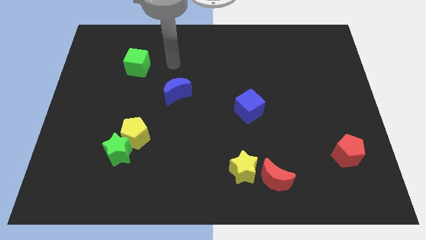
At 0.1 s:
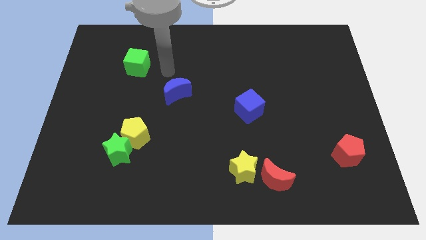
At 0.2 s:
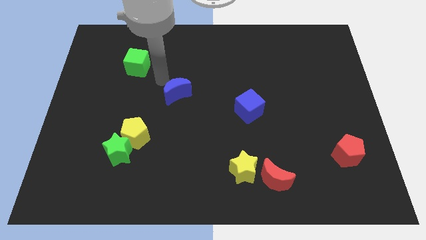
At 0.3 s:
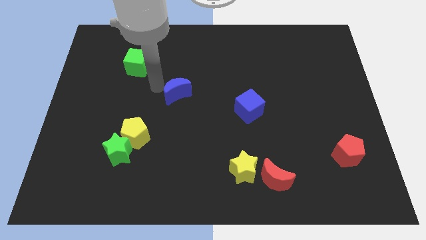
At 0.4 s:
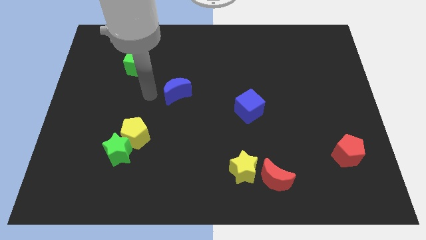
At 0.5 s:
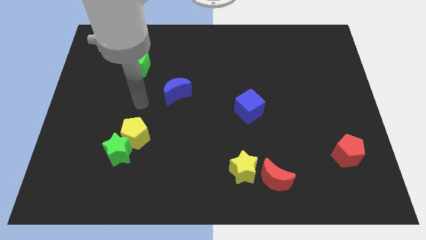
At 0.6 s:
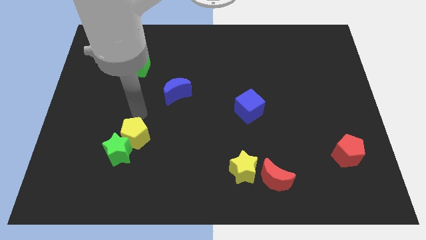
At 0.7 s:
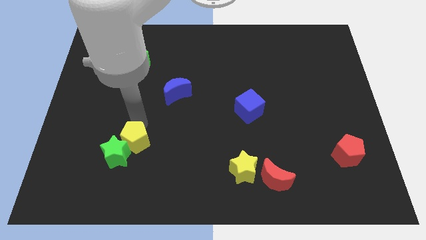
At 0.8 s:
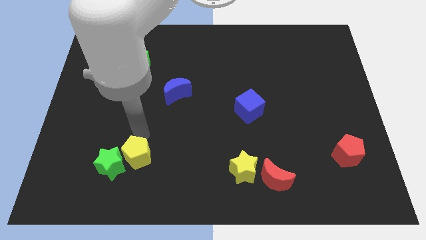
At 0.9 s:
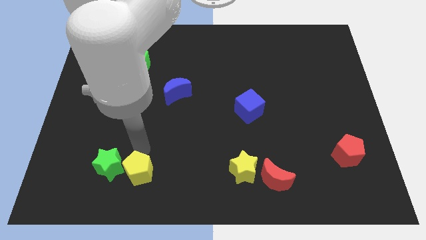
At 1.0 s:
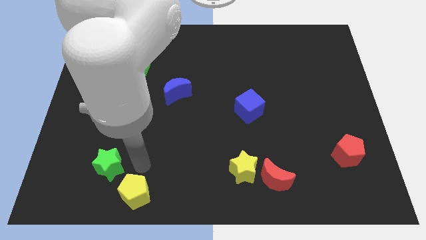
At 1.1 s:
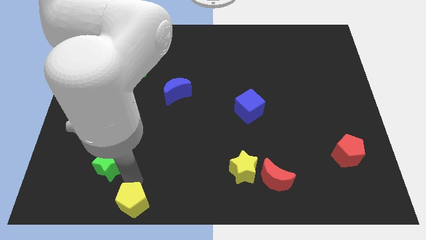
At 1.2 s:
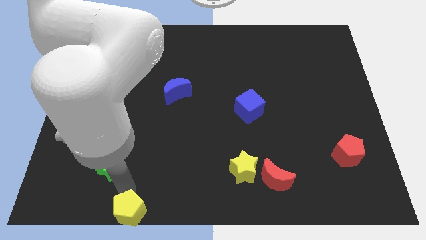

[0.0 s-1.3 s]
pull the green star apart from the yellow pentagon

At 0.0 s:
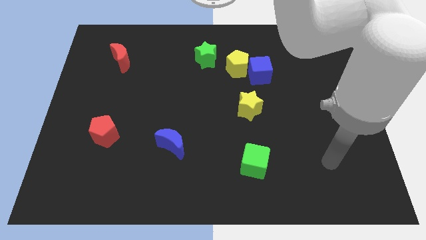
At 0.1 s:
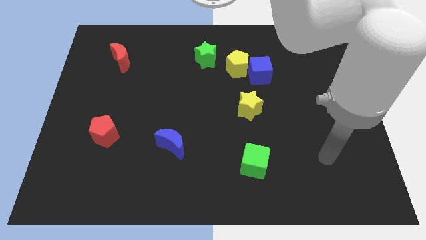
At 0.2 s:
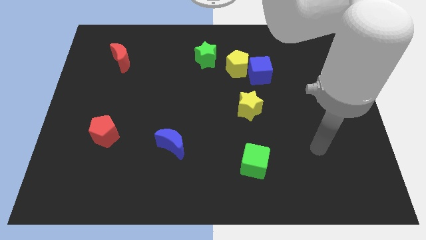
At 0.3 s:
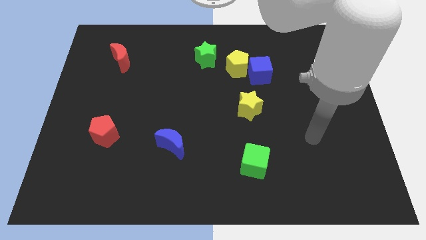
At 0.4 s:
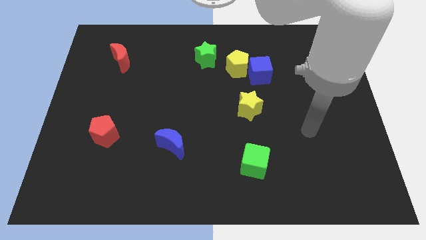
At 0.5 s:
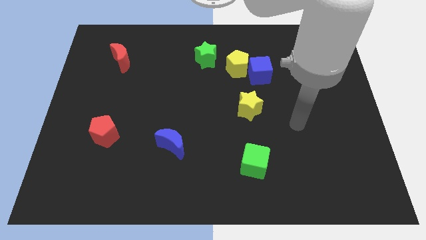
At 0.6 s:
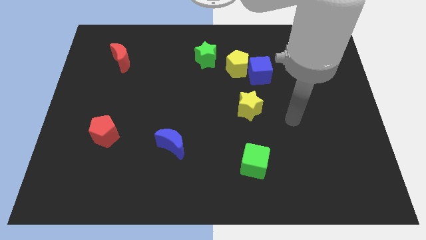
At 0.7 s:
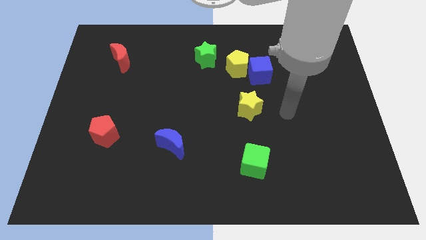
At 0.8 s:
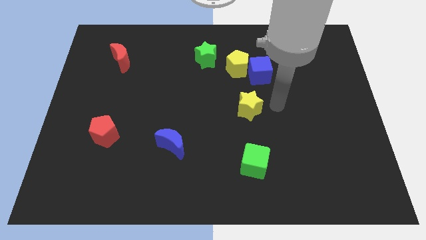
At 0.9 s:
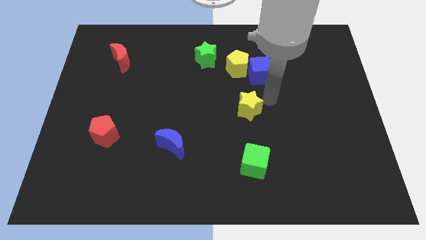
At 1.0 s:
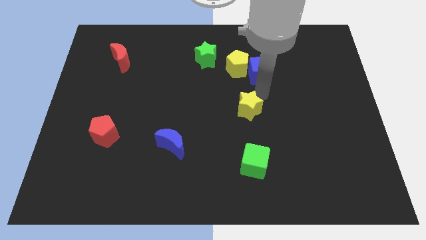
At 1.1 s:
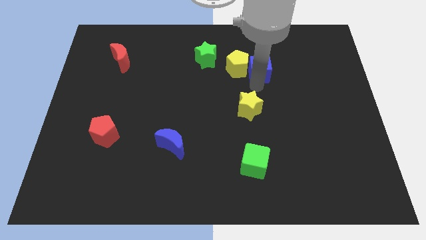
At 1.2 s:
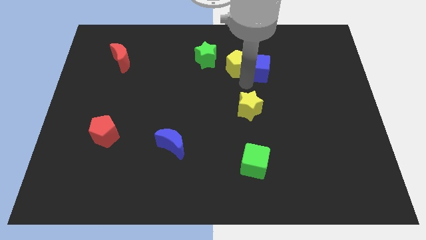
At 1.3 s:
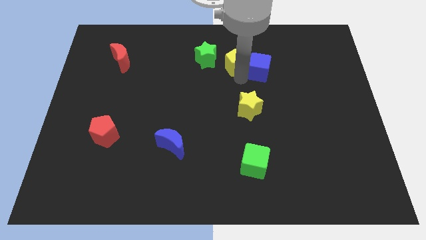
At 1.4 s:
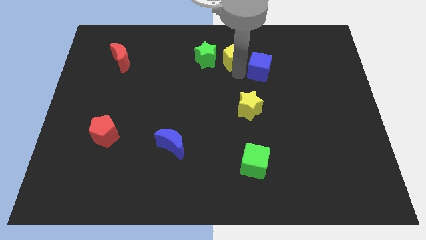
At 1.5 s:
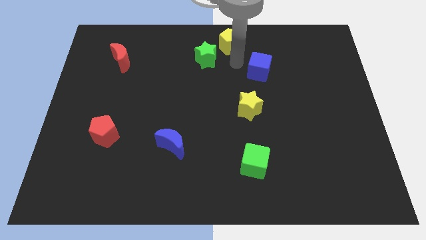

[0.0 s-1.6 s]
move the blue cube away from the yellow pentagon

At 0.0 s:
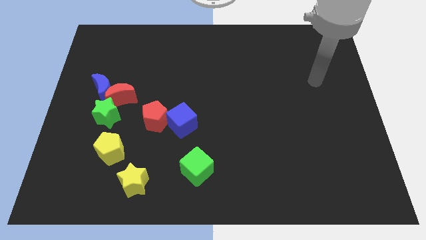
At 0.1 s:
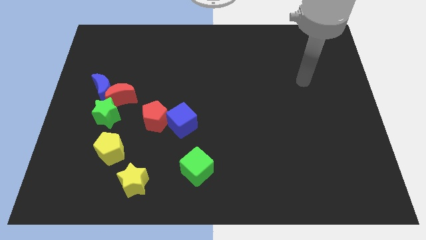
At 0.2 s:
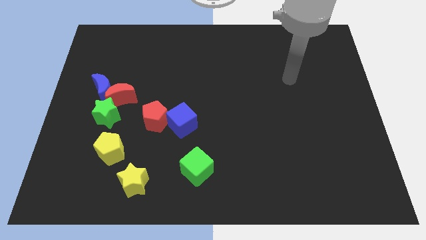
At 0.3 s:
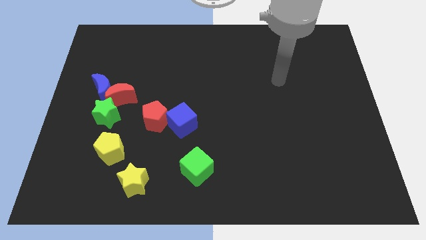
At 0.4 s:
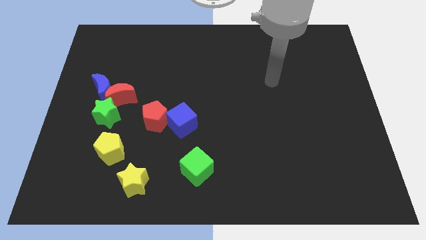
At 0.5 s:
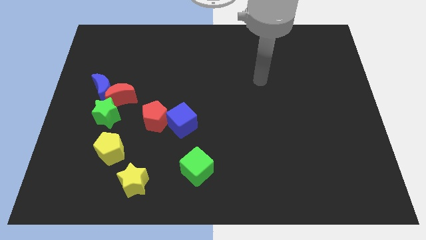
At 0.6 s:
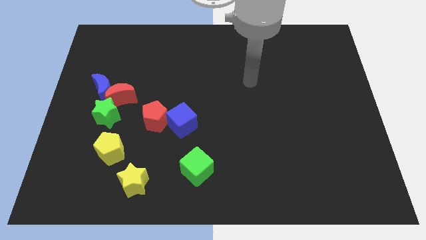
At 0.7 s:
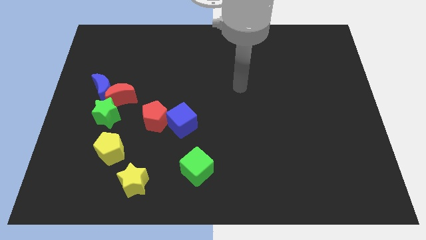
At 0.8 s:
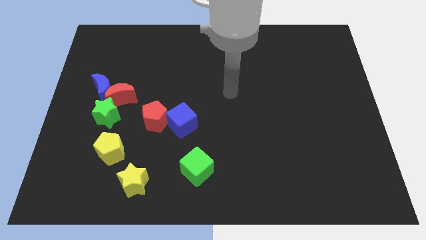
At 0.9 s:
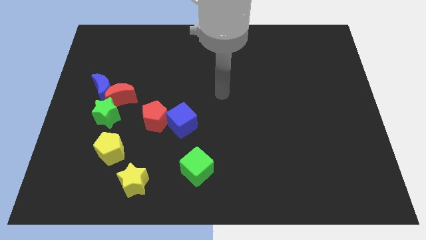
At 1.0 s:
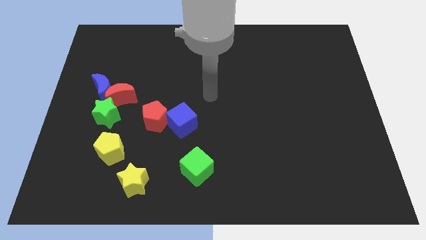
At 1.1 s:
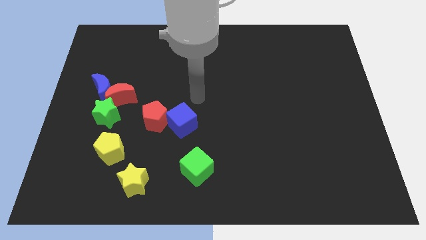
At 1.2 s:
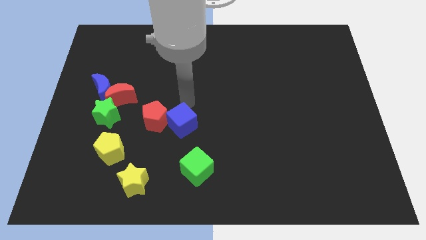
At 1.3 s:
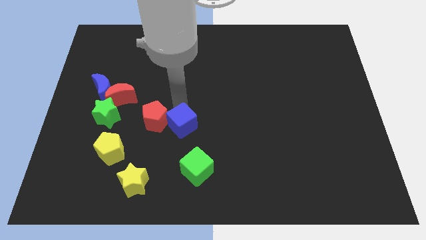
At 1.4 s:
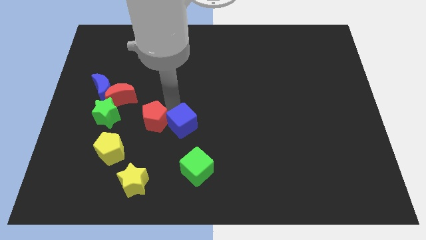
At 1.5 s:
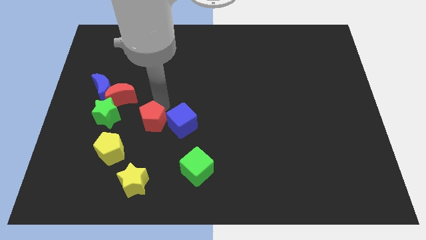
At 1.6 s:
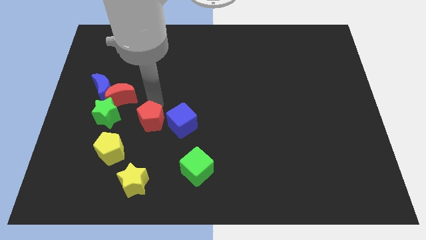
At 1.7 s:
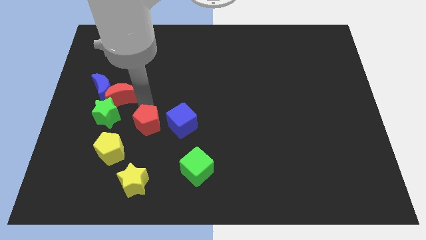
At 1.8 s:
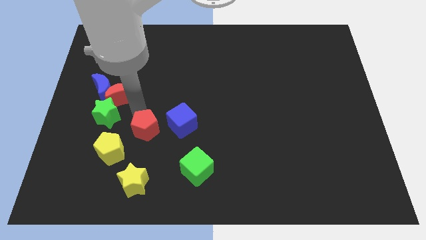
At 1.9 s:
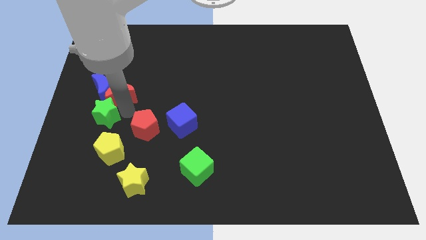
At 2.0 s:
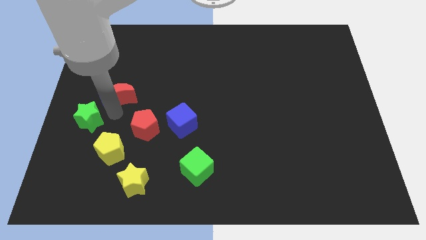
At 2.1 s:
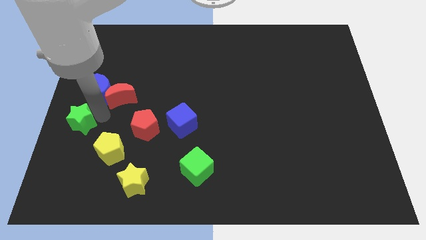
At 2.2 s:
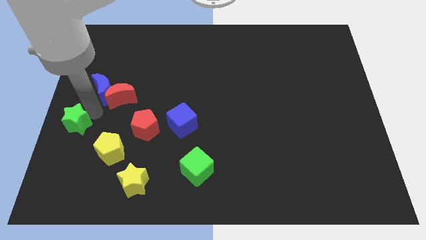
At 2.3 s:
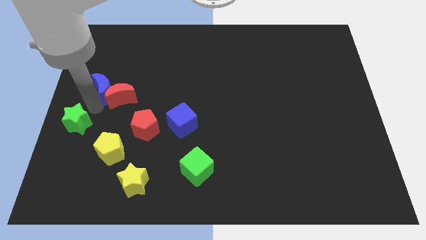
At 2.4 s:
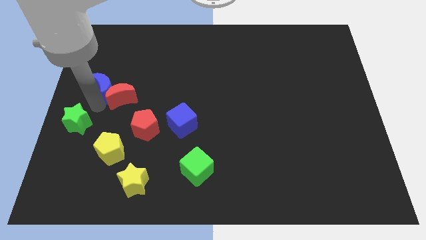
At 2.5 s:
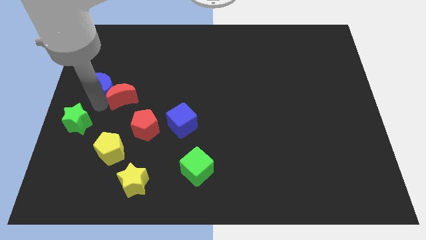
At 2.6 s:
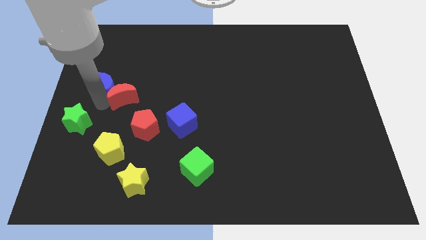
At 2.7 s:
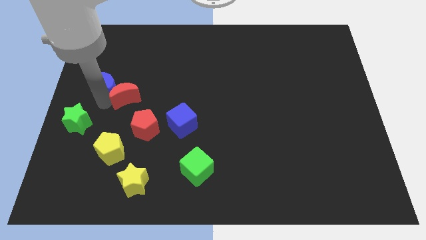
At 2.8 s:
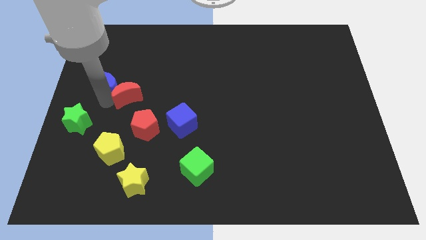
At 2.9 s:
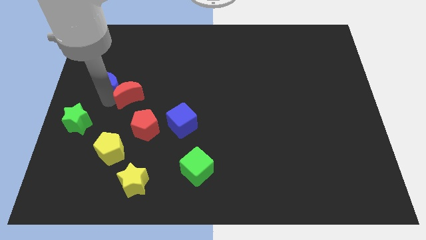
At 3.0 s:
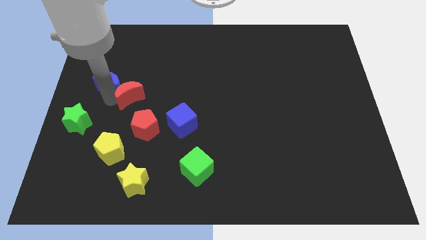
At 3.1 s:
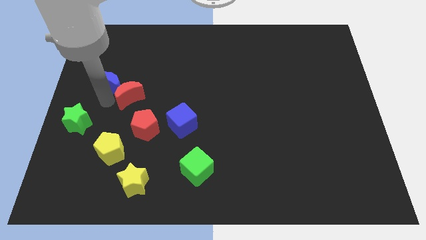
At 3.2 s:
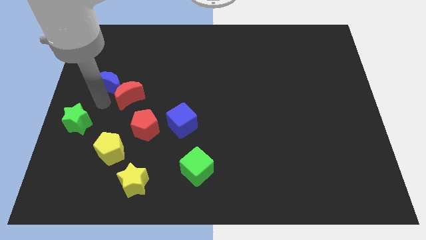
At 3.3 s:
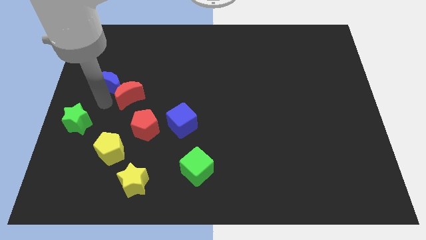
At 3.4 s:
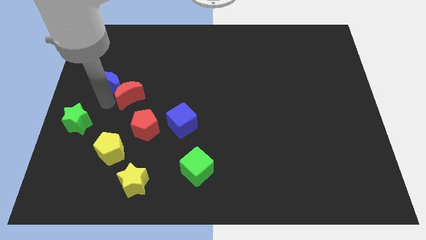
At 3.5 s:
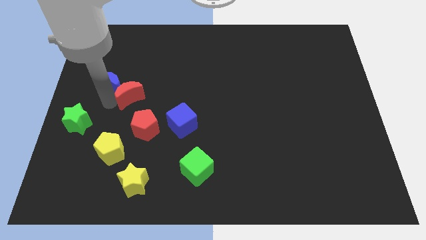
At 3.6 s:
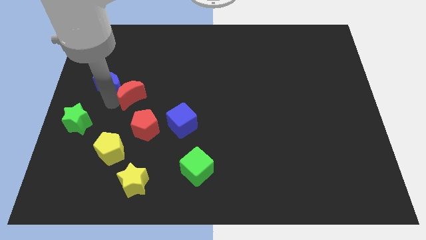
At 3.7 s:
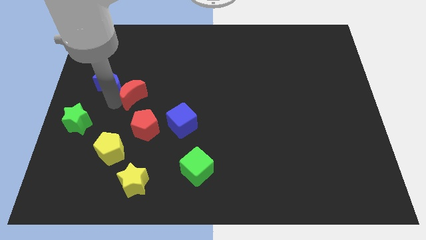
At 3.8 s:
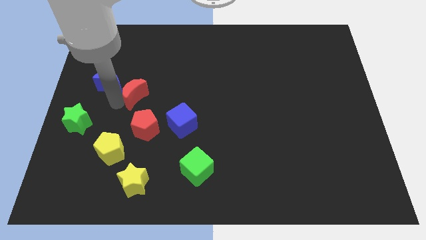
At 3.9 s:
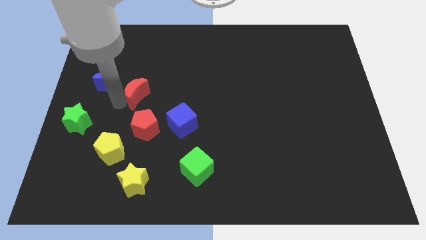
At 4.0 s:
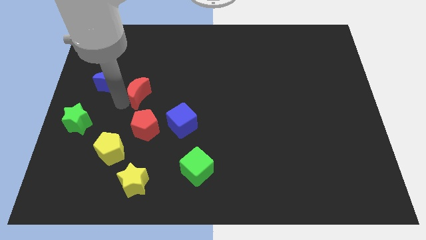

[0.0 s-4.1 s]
pull the red moon apart from the blue moon and green star

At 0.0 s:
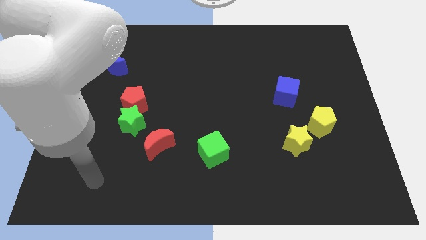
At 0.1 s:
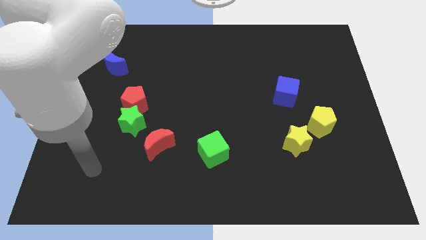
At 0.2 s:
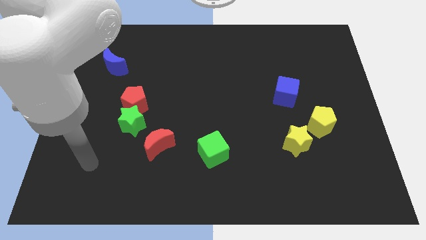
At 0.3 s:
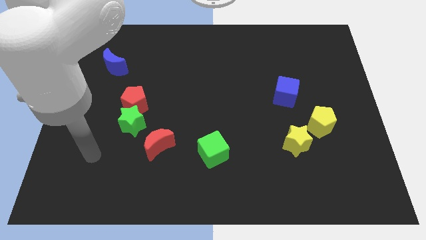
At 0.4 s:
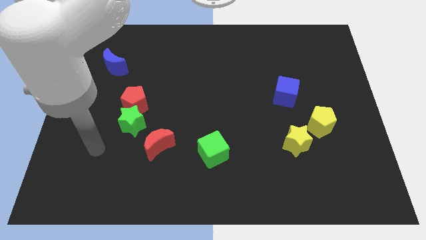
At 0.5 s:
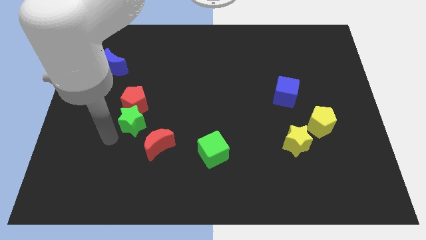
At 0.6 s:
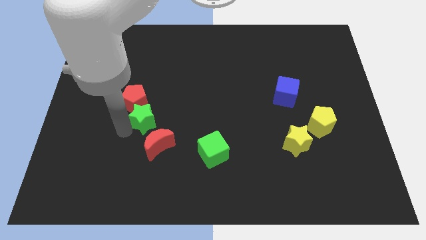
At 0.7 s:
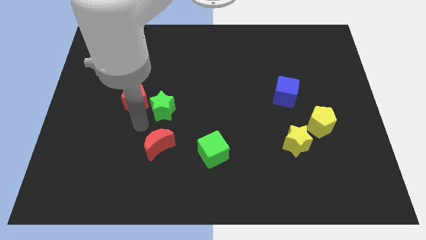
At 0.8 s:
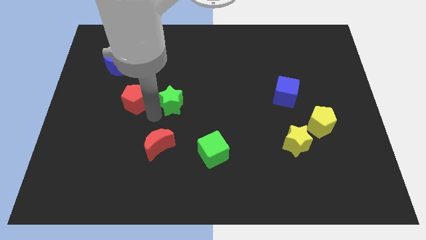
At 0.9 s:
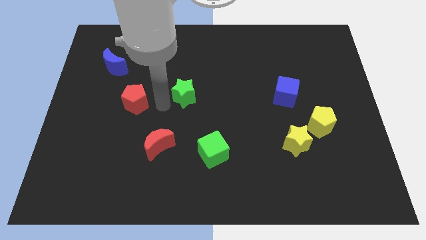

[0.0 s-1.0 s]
pull the red pentagon apart from the green star

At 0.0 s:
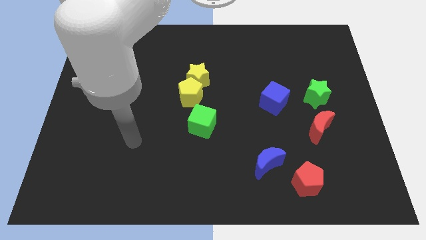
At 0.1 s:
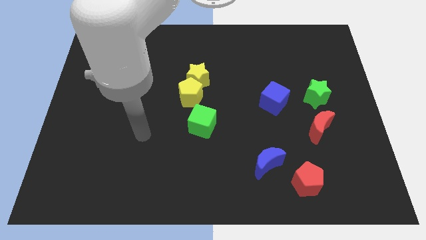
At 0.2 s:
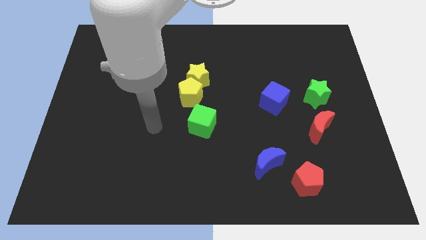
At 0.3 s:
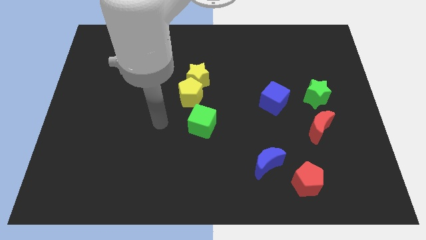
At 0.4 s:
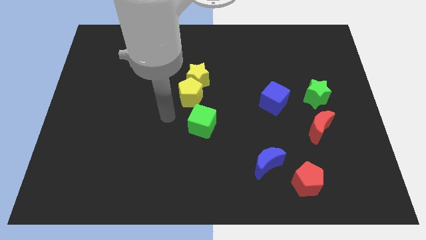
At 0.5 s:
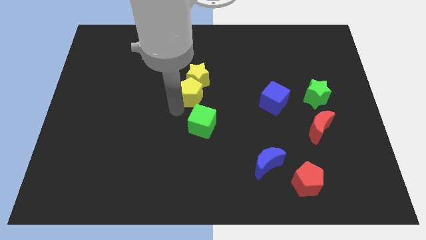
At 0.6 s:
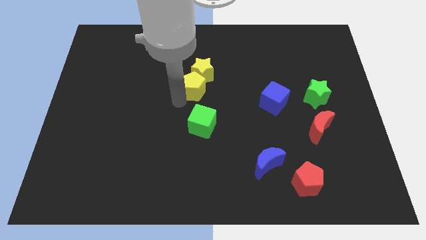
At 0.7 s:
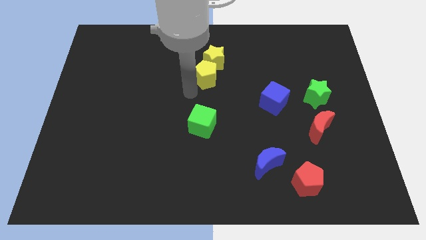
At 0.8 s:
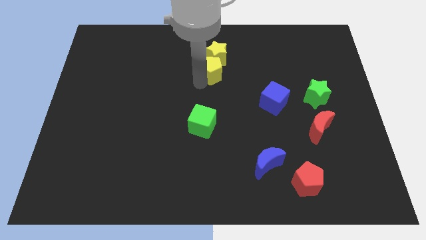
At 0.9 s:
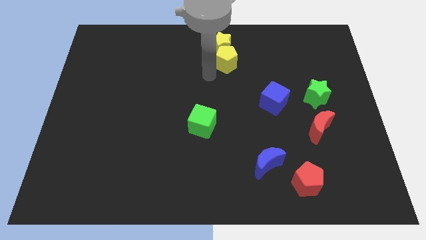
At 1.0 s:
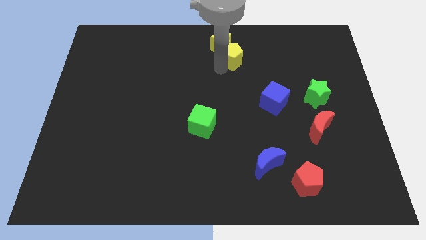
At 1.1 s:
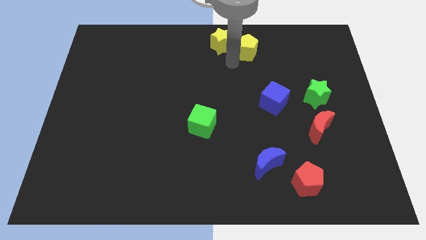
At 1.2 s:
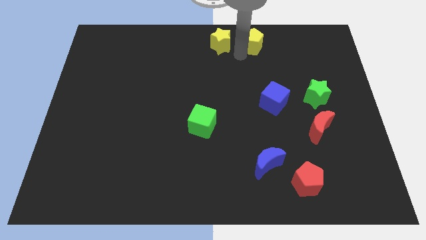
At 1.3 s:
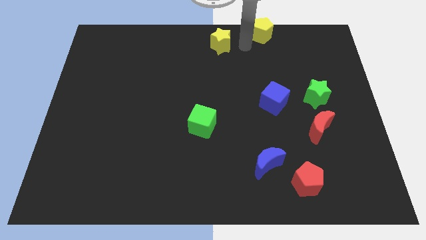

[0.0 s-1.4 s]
move the yellow star away from the yellow pentagon
